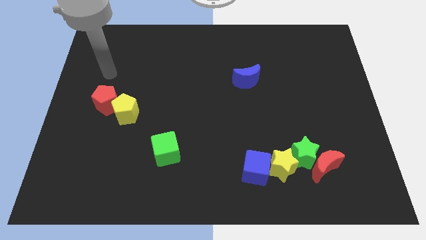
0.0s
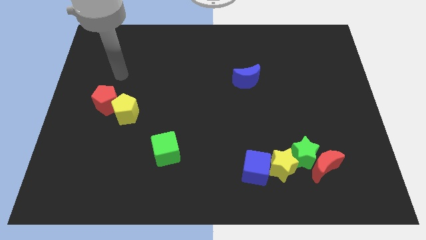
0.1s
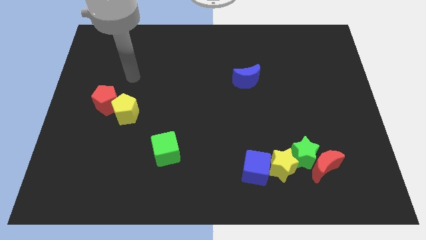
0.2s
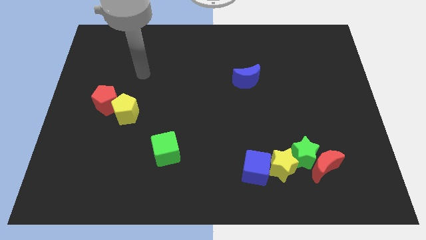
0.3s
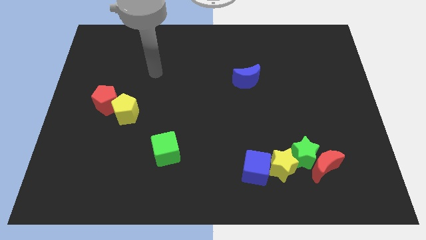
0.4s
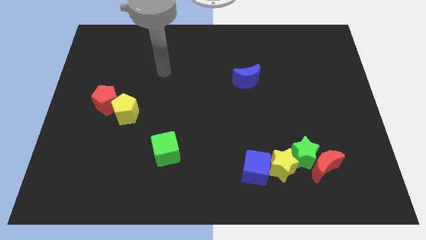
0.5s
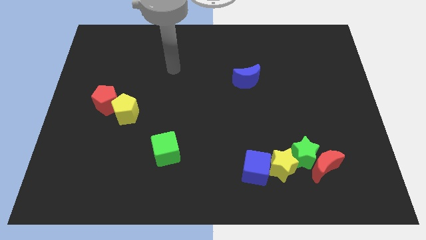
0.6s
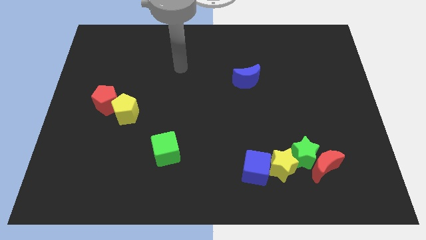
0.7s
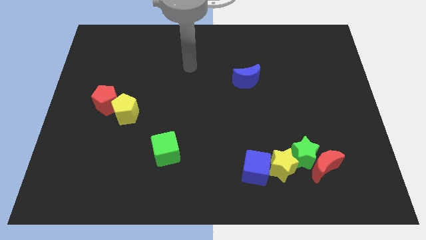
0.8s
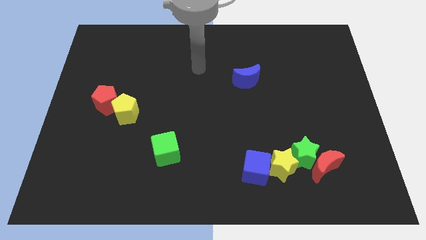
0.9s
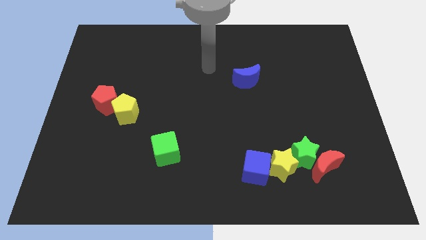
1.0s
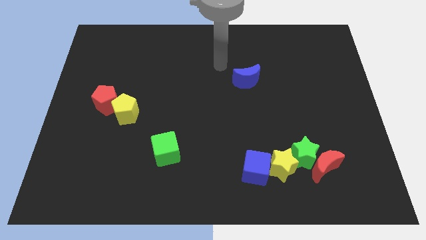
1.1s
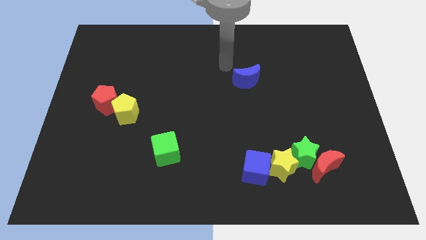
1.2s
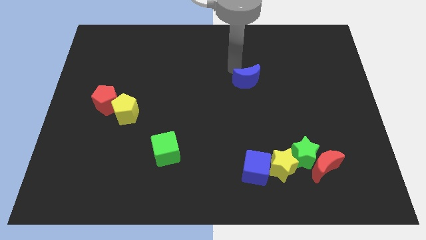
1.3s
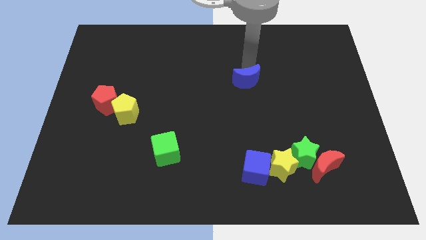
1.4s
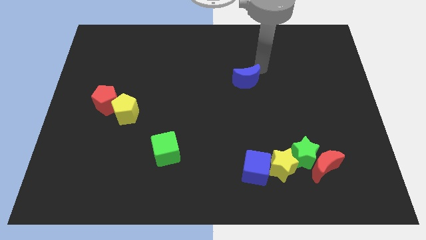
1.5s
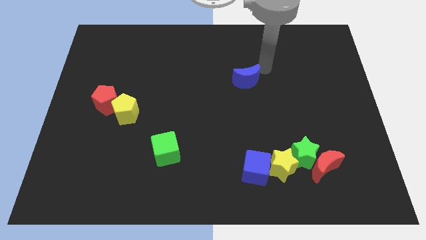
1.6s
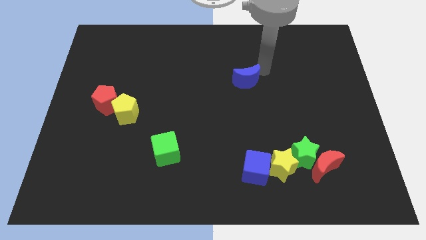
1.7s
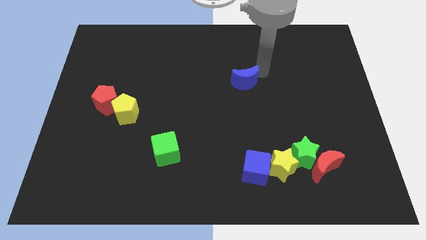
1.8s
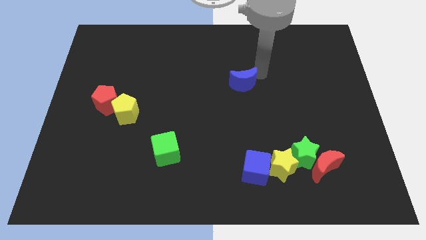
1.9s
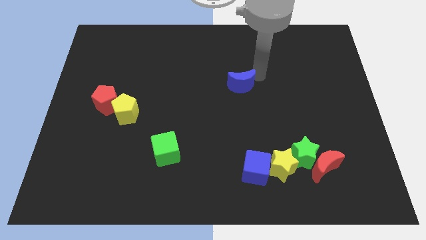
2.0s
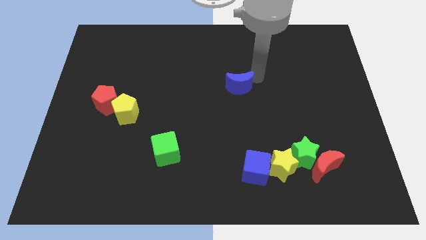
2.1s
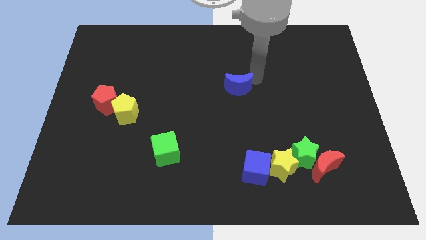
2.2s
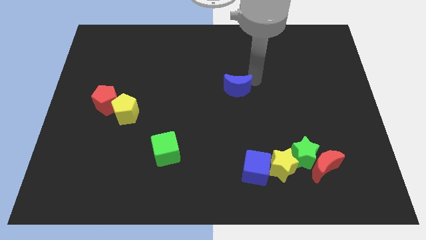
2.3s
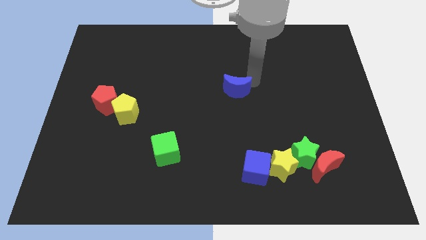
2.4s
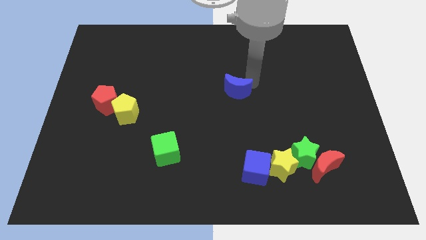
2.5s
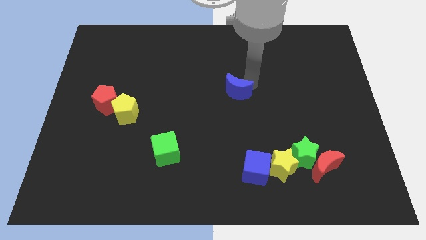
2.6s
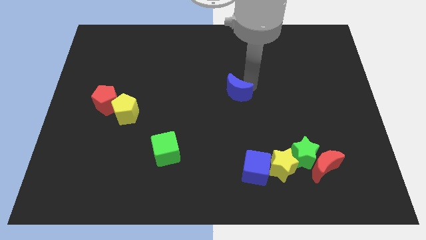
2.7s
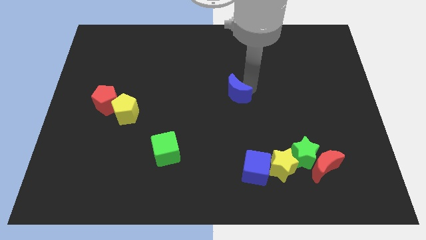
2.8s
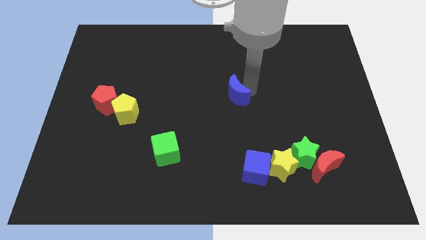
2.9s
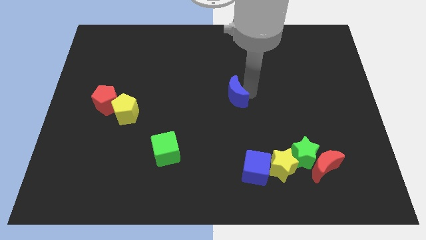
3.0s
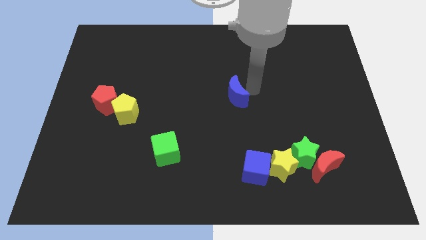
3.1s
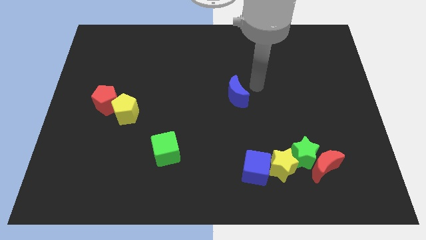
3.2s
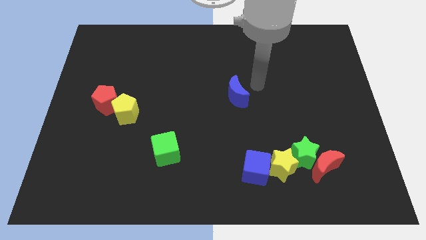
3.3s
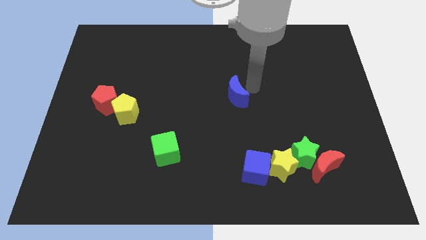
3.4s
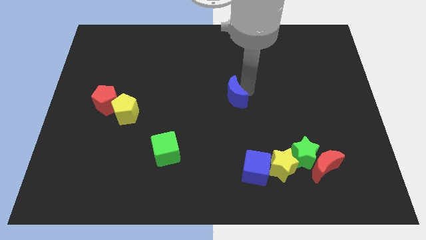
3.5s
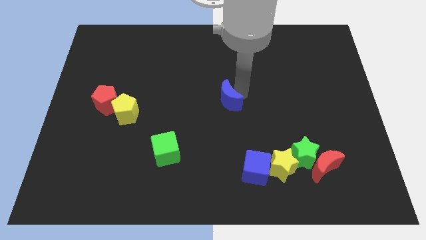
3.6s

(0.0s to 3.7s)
move the blue moon down and left diagonally a little bit

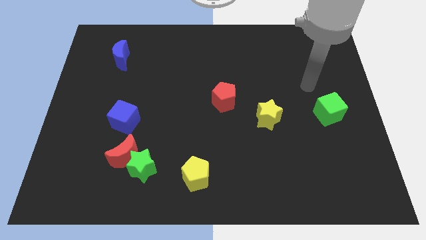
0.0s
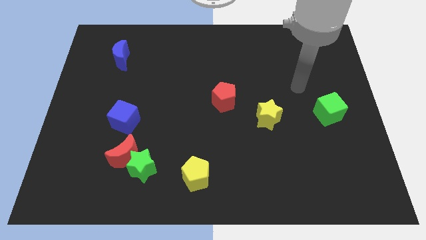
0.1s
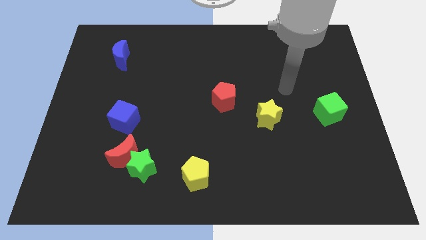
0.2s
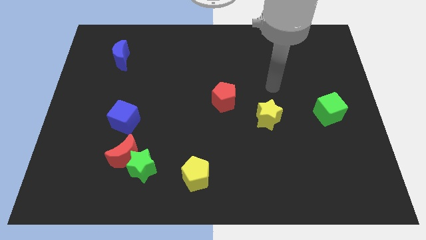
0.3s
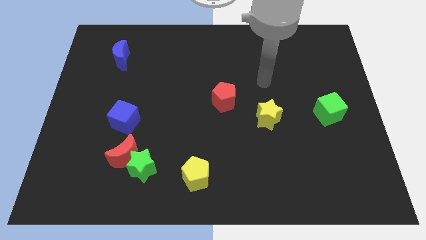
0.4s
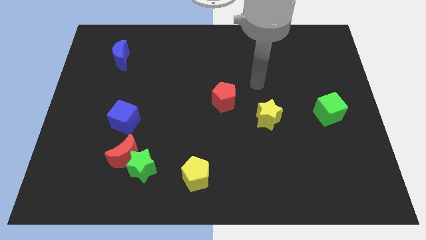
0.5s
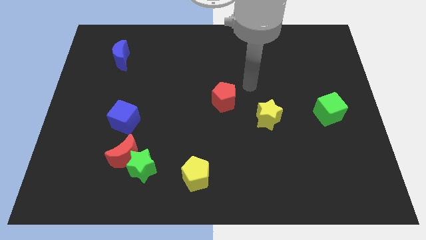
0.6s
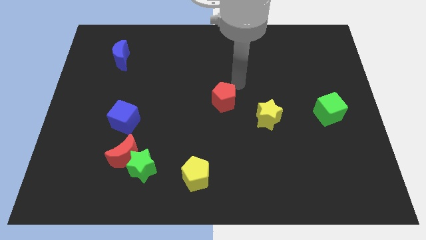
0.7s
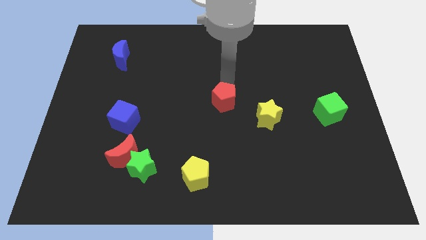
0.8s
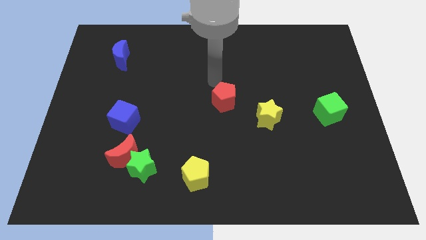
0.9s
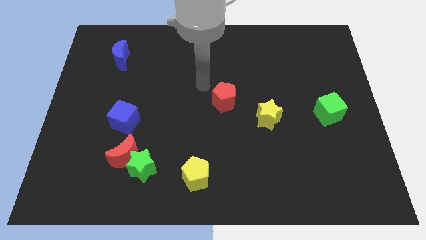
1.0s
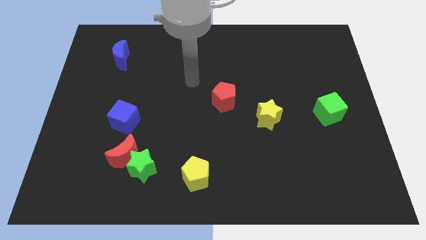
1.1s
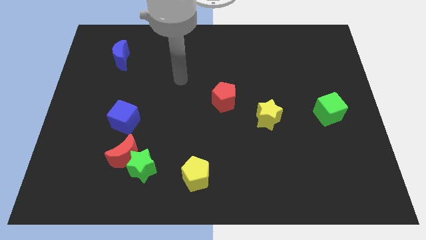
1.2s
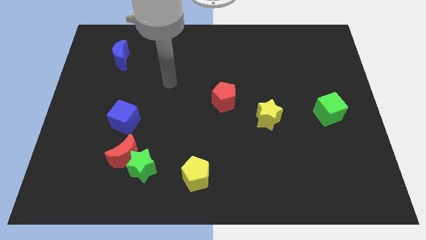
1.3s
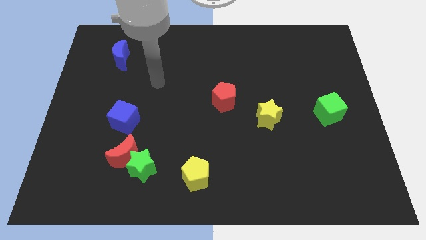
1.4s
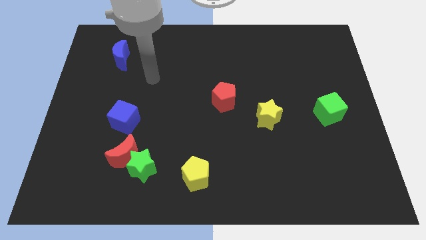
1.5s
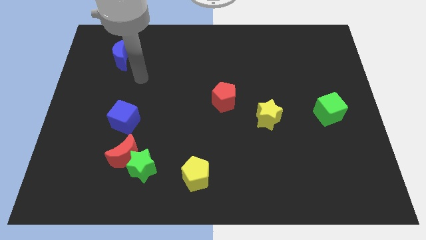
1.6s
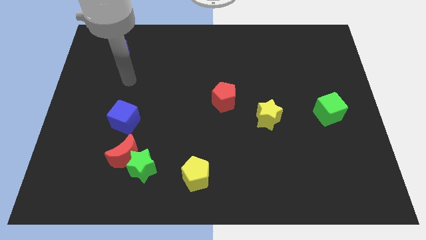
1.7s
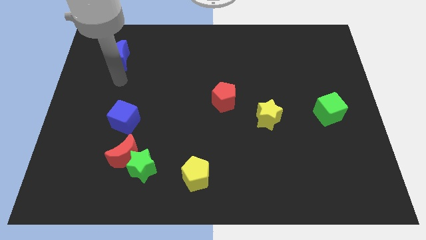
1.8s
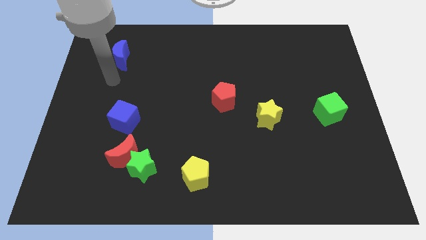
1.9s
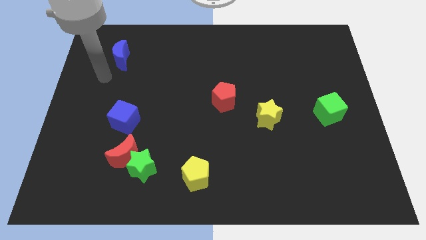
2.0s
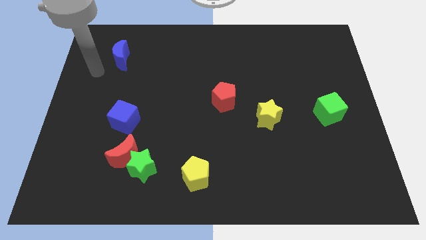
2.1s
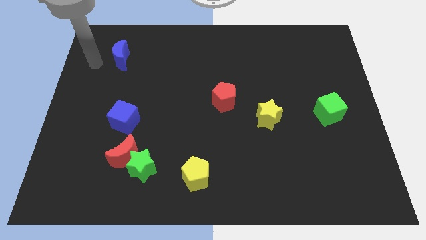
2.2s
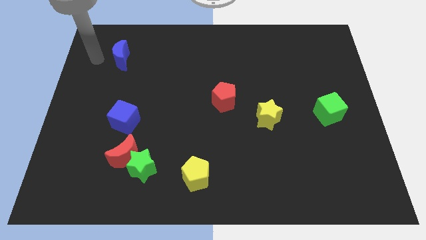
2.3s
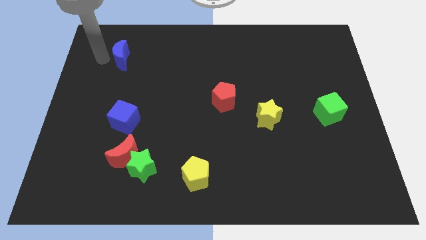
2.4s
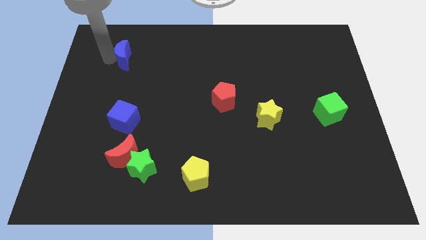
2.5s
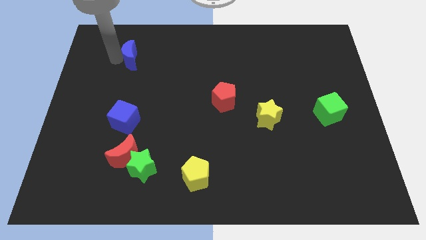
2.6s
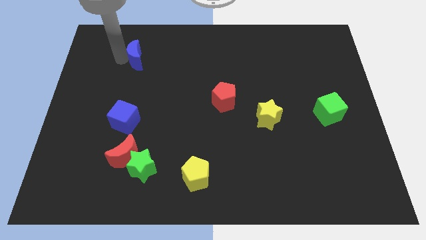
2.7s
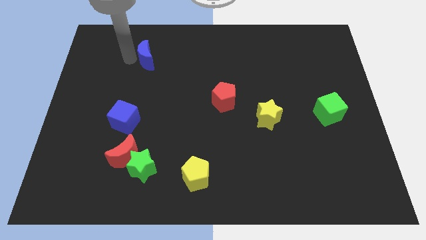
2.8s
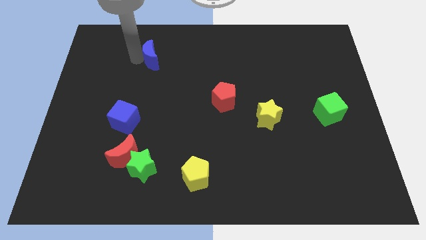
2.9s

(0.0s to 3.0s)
slide the blue moon somewhat right

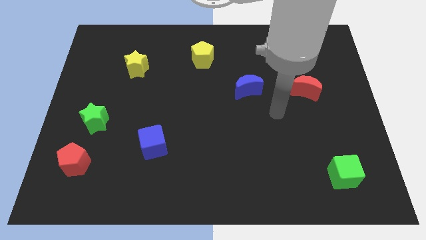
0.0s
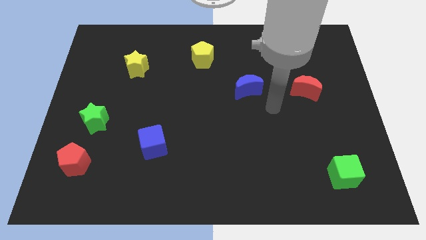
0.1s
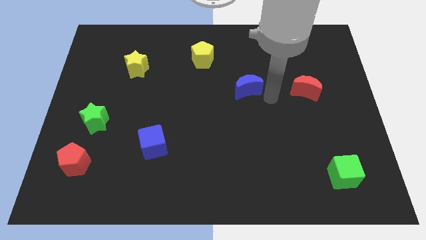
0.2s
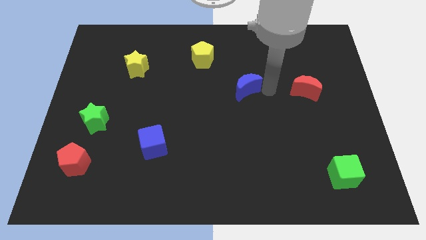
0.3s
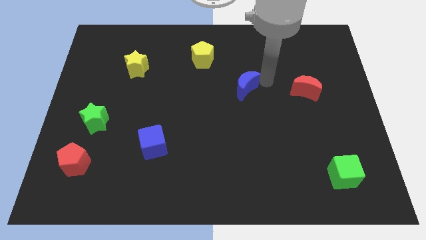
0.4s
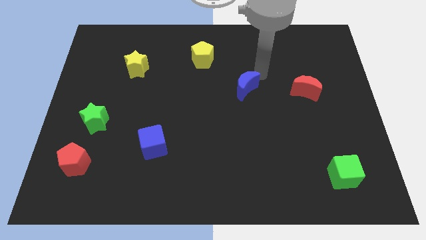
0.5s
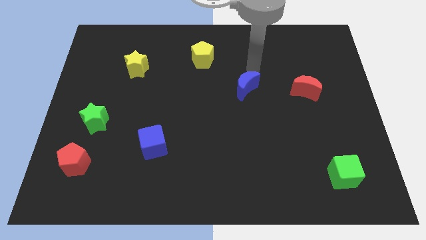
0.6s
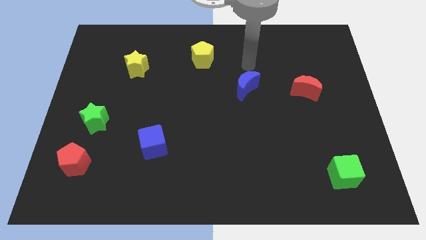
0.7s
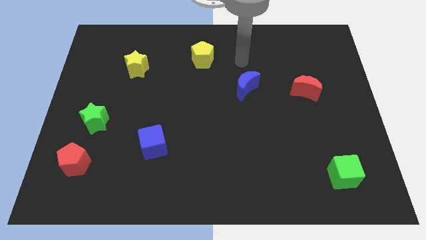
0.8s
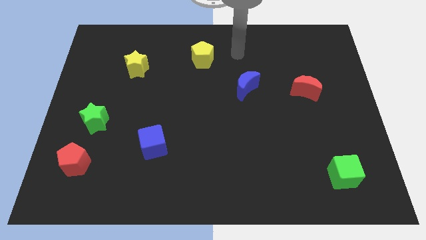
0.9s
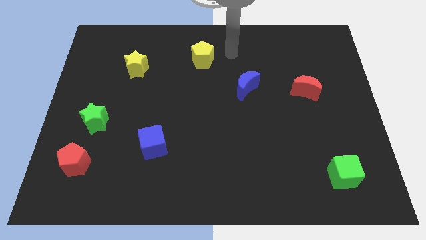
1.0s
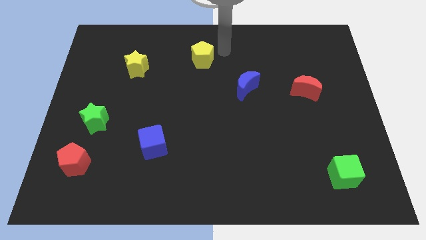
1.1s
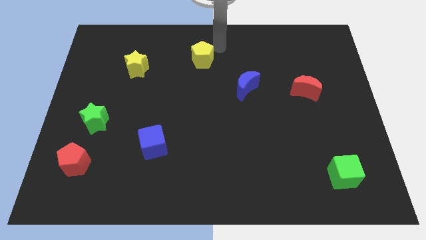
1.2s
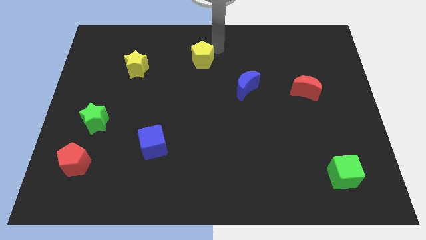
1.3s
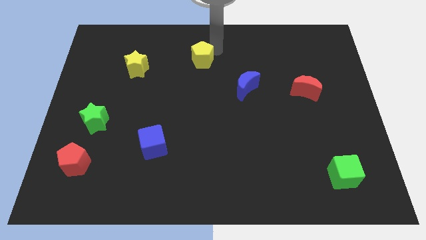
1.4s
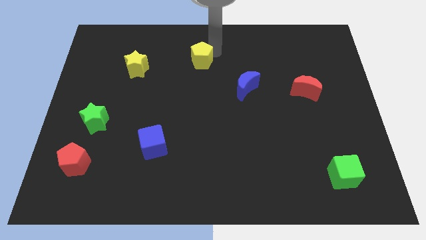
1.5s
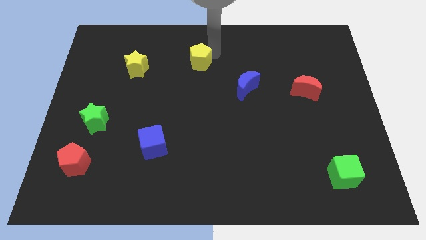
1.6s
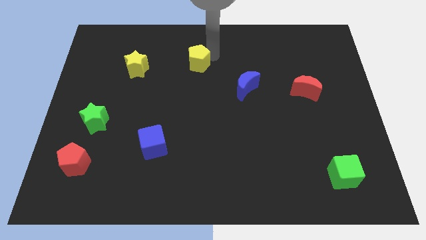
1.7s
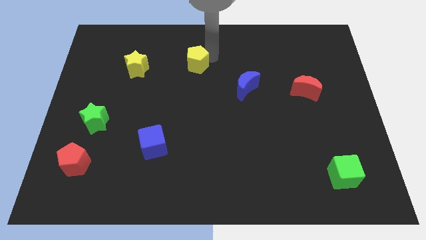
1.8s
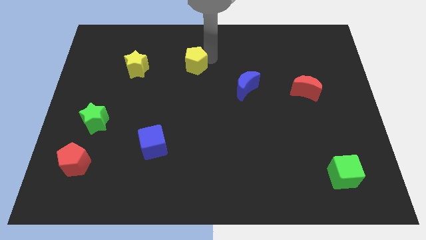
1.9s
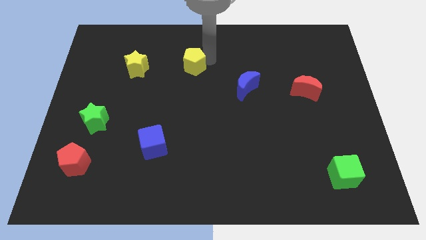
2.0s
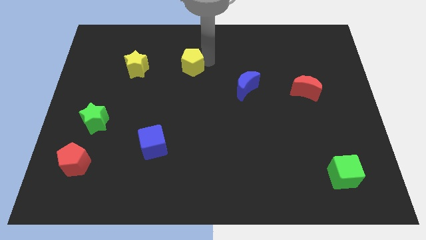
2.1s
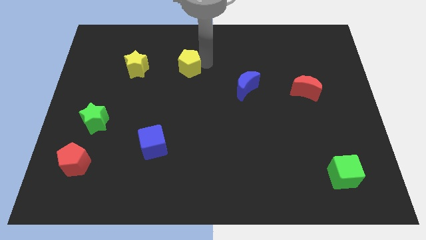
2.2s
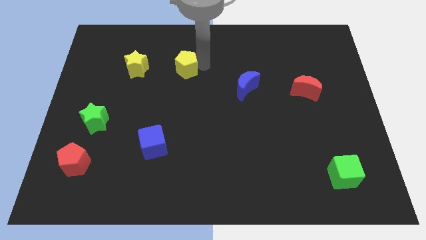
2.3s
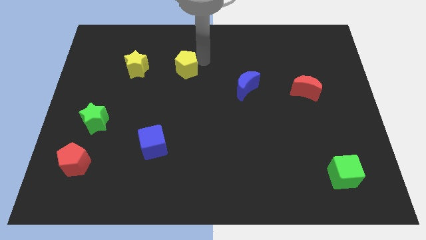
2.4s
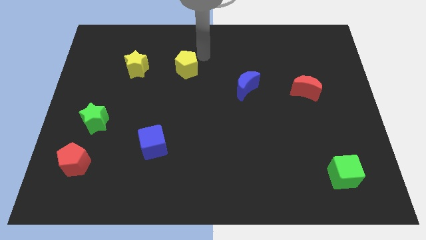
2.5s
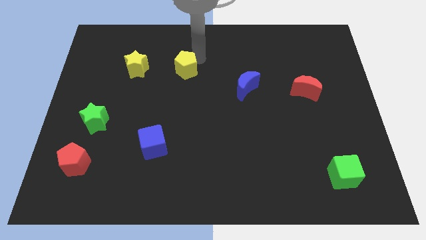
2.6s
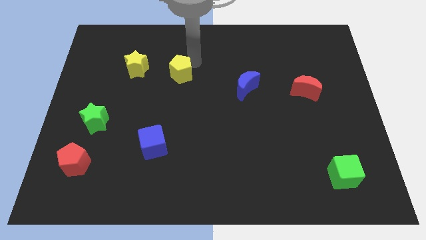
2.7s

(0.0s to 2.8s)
slightly slide the yellow pentagon down and to the left
